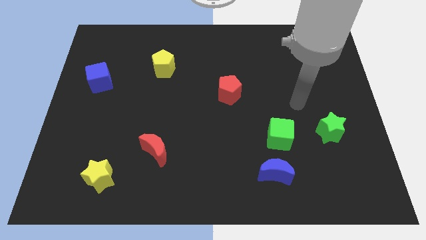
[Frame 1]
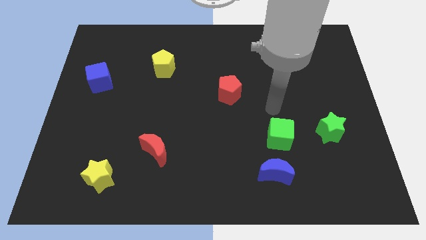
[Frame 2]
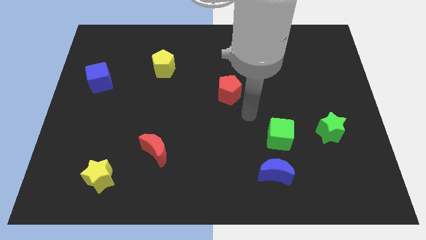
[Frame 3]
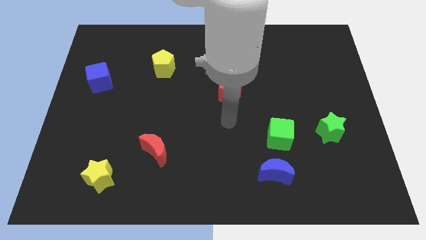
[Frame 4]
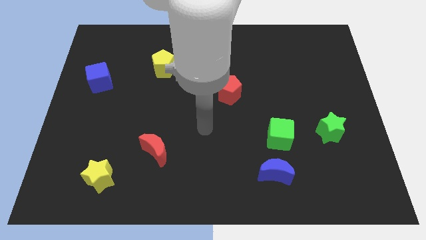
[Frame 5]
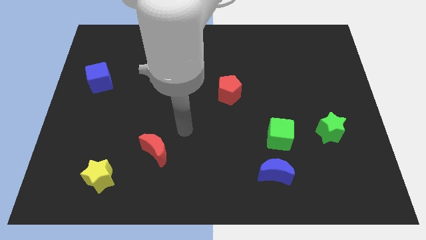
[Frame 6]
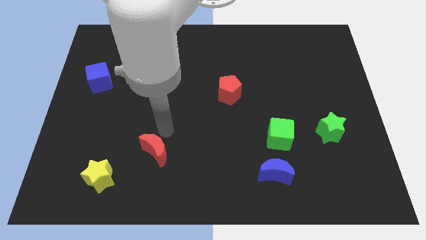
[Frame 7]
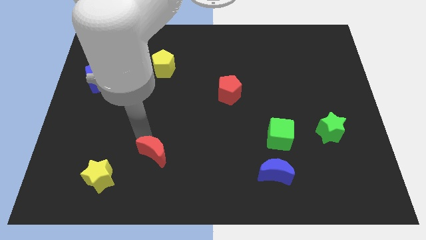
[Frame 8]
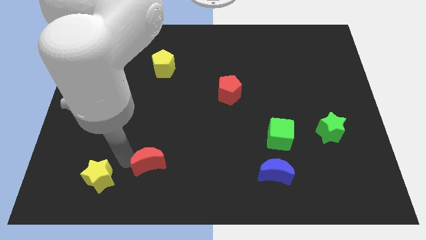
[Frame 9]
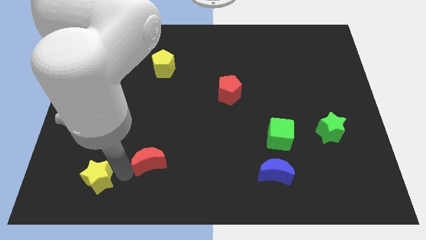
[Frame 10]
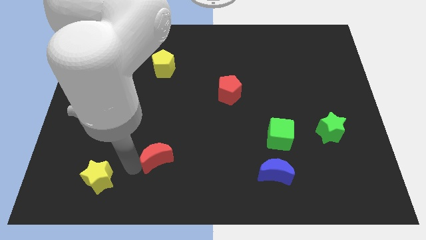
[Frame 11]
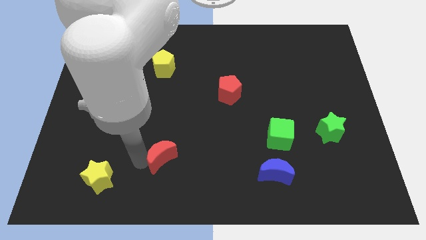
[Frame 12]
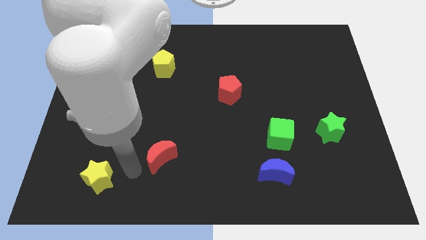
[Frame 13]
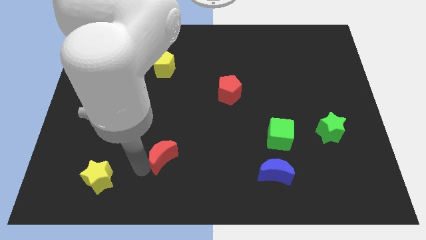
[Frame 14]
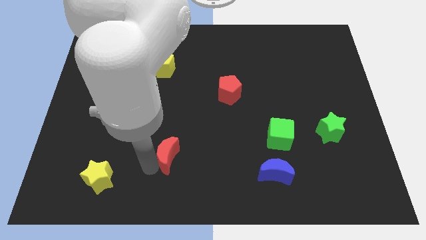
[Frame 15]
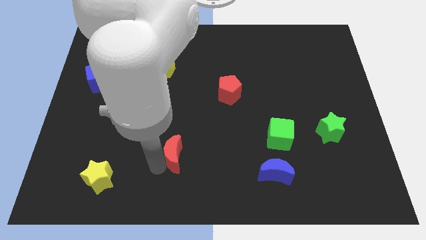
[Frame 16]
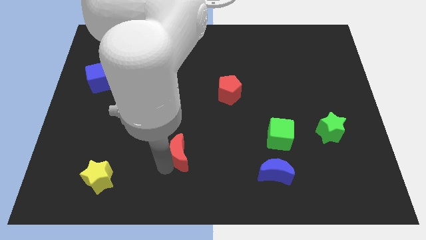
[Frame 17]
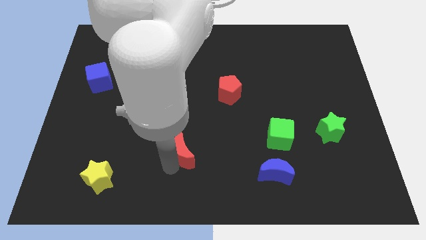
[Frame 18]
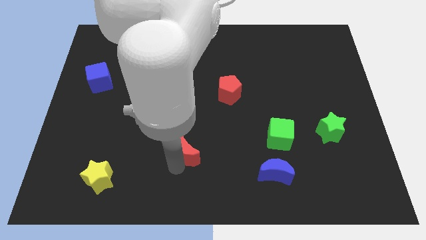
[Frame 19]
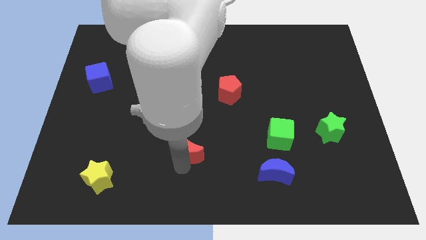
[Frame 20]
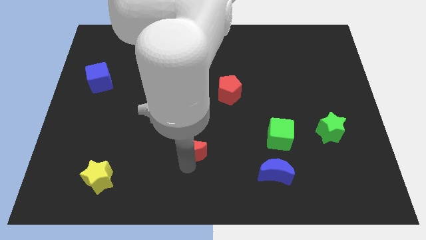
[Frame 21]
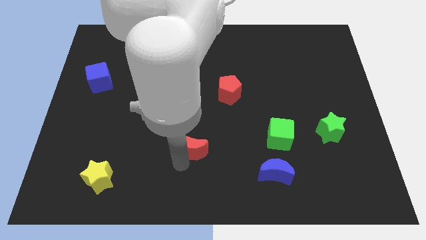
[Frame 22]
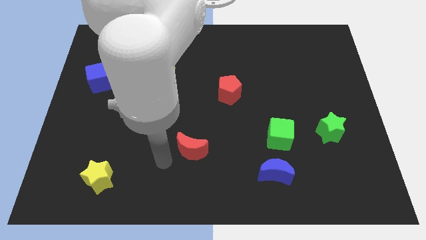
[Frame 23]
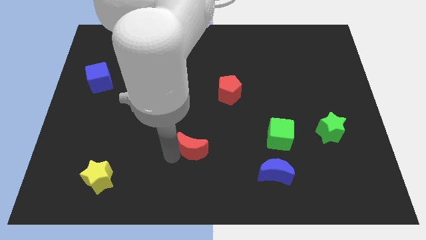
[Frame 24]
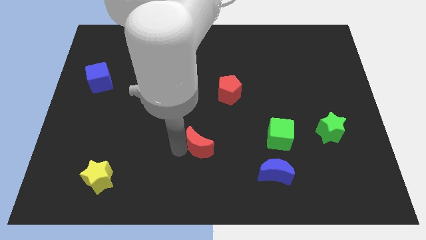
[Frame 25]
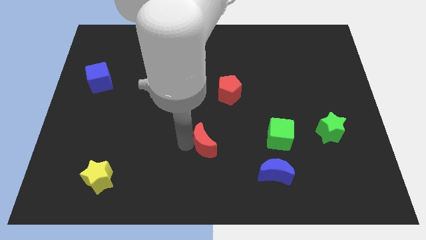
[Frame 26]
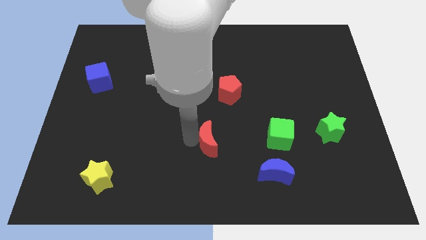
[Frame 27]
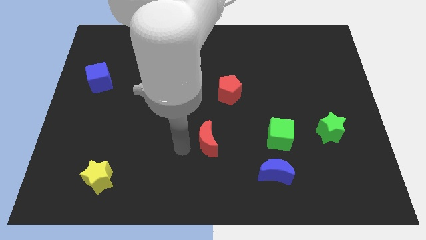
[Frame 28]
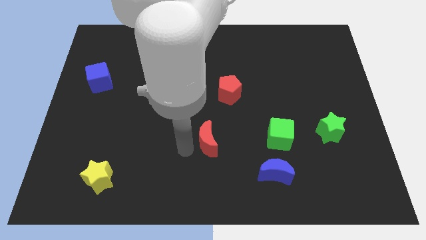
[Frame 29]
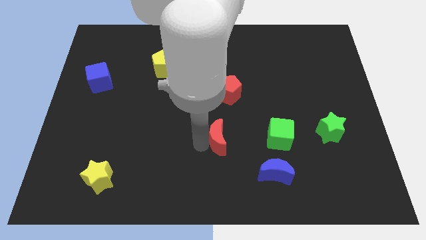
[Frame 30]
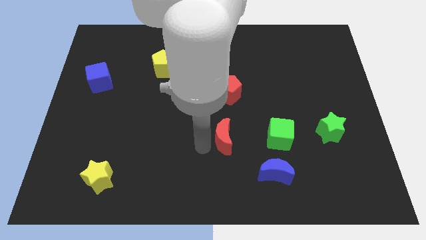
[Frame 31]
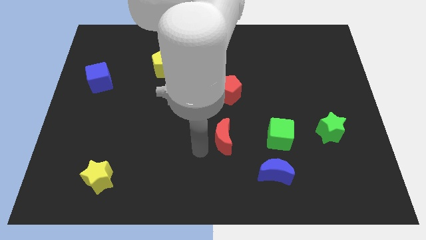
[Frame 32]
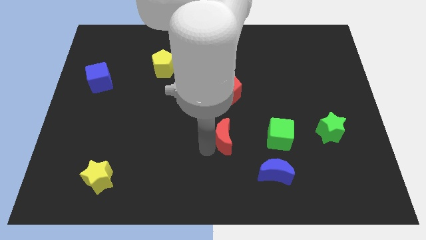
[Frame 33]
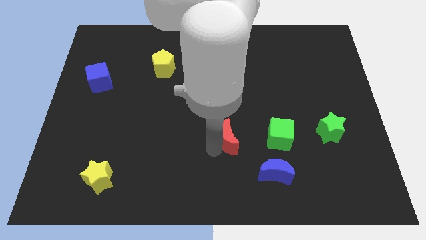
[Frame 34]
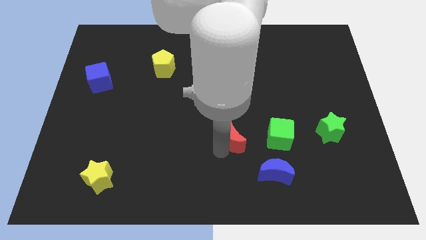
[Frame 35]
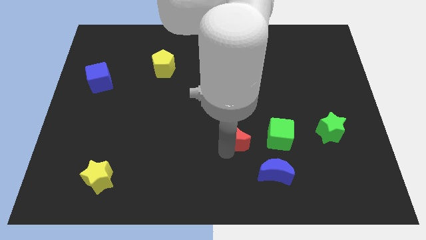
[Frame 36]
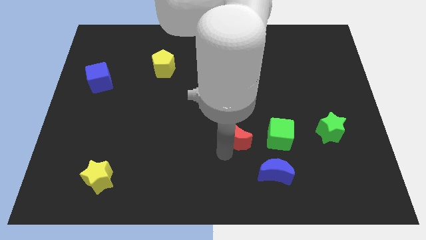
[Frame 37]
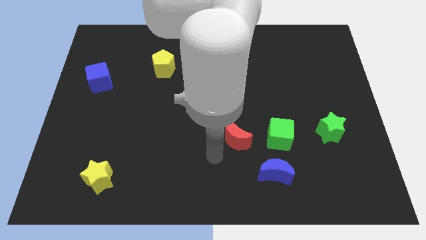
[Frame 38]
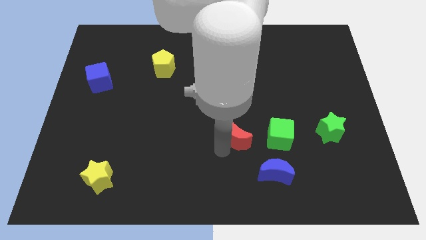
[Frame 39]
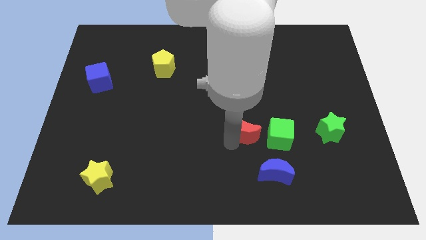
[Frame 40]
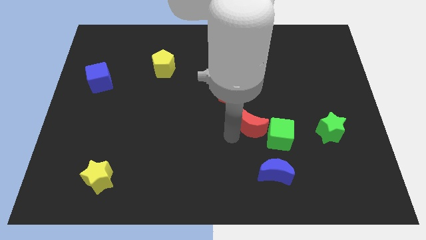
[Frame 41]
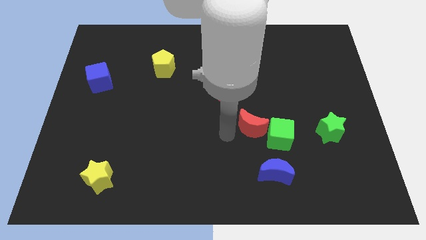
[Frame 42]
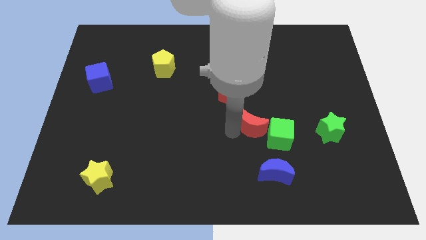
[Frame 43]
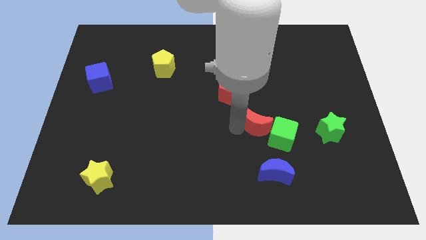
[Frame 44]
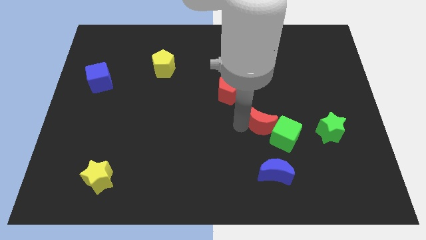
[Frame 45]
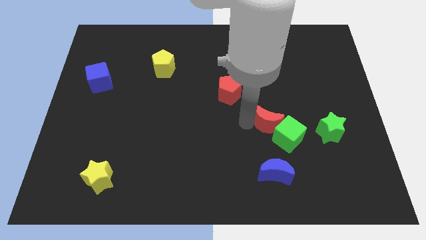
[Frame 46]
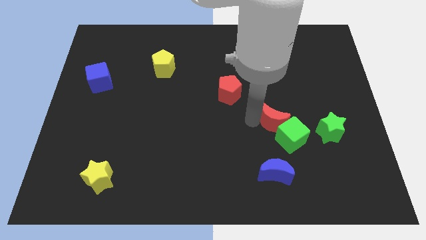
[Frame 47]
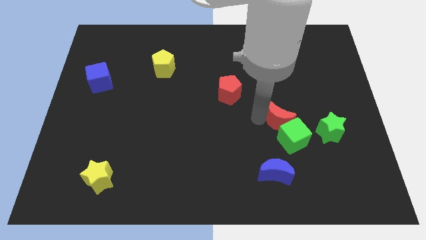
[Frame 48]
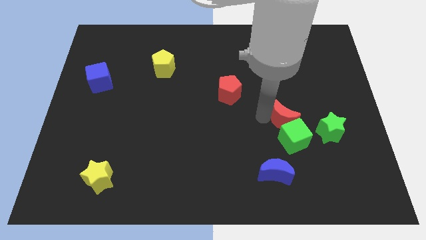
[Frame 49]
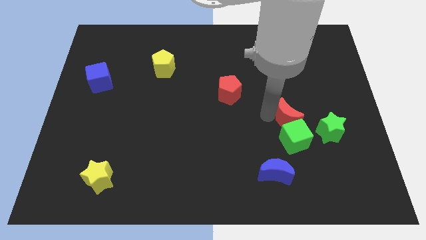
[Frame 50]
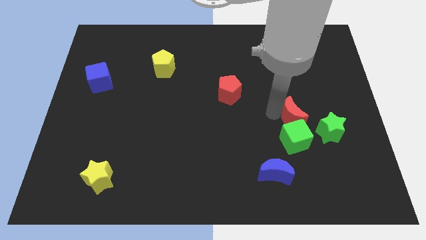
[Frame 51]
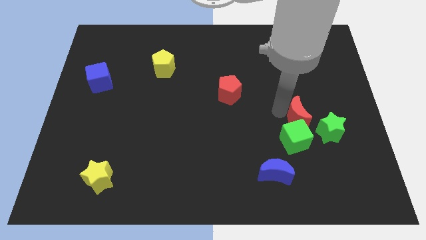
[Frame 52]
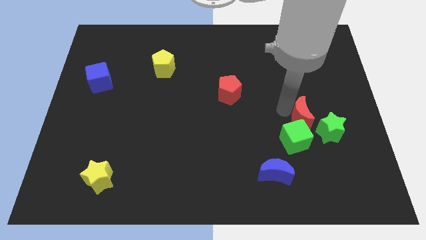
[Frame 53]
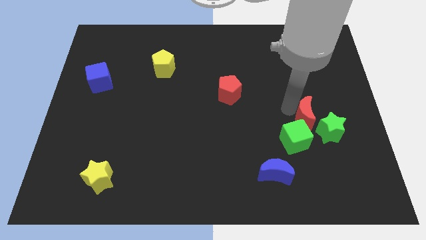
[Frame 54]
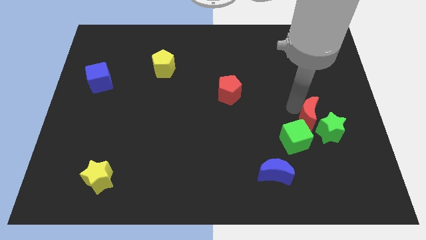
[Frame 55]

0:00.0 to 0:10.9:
slide the red moon close to the green star

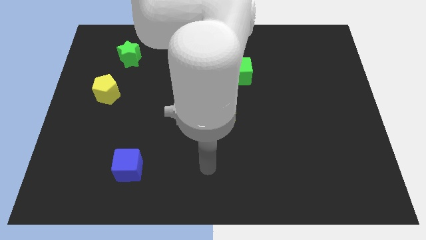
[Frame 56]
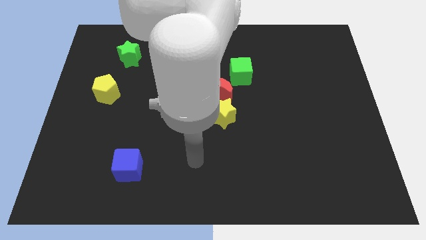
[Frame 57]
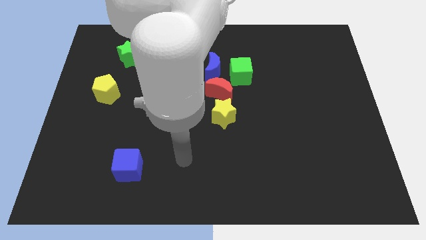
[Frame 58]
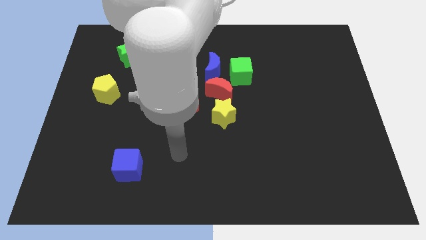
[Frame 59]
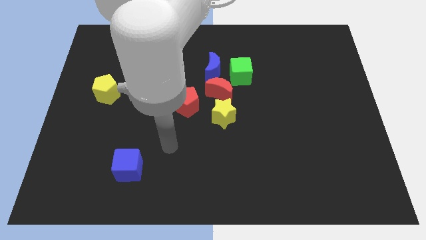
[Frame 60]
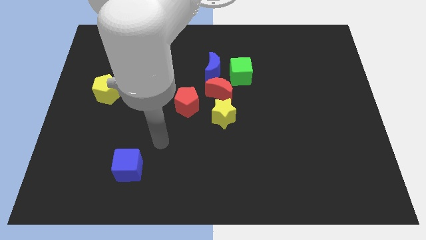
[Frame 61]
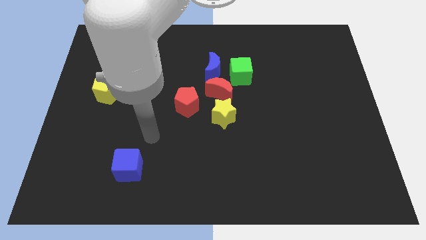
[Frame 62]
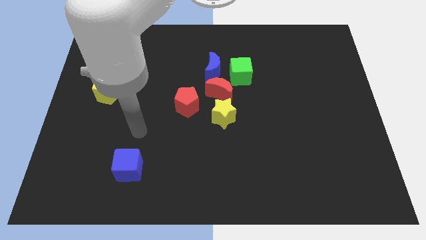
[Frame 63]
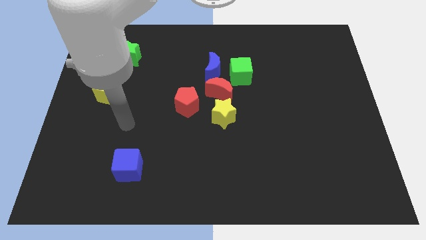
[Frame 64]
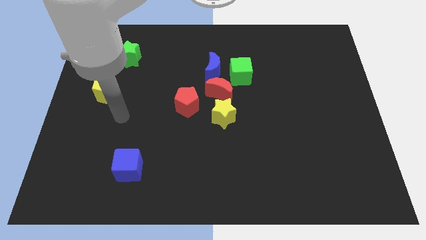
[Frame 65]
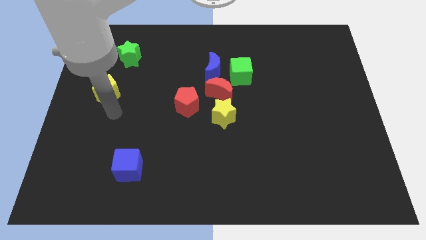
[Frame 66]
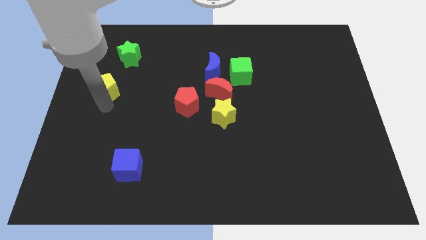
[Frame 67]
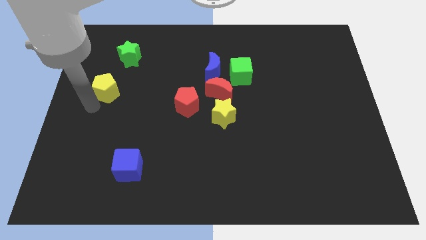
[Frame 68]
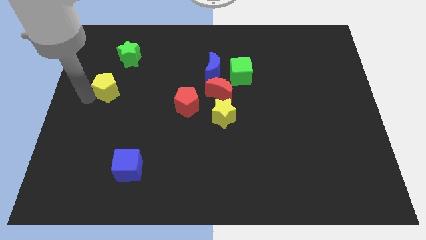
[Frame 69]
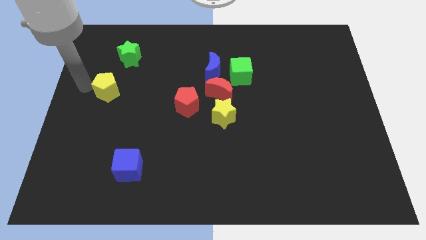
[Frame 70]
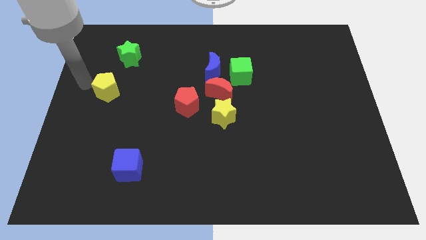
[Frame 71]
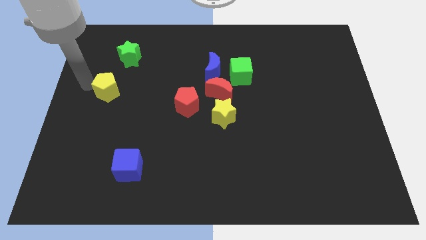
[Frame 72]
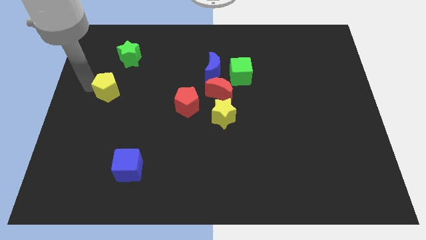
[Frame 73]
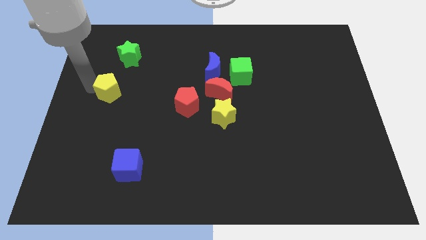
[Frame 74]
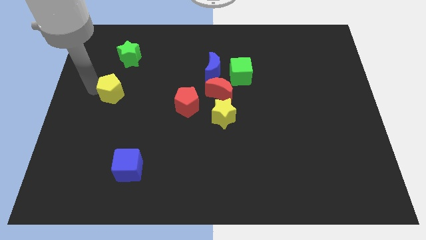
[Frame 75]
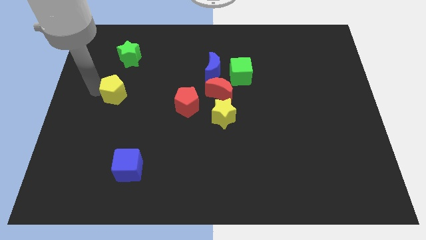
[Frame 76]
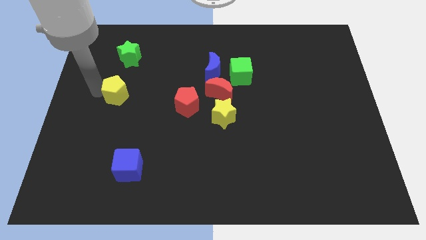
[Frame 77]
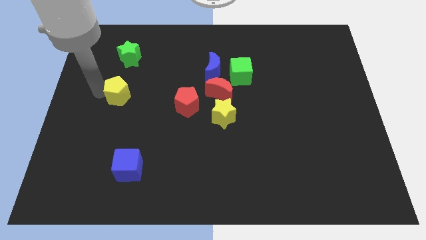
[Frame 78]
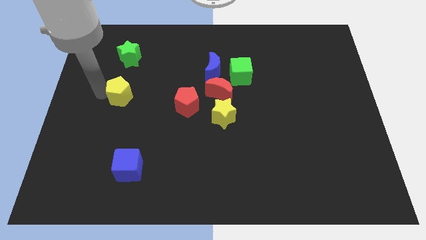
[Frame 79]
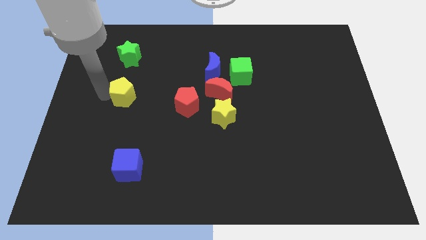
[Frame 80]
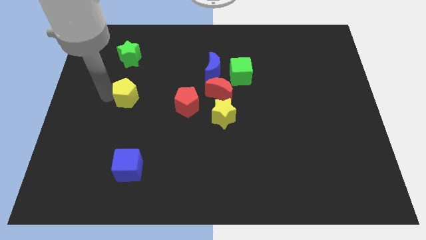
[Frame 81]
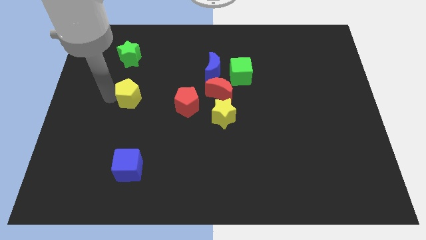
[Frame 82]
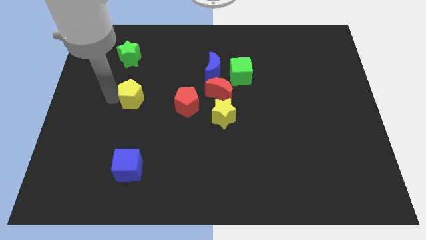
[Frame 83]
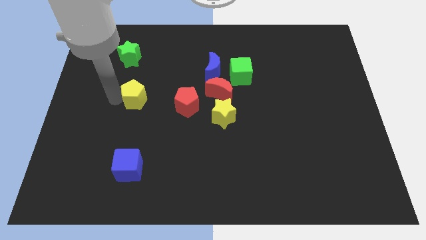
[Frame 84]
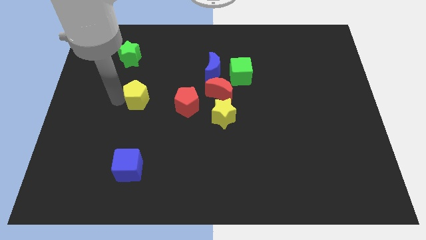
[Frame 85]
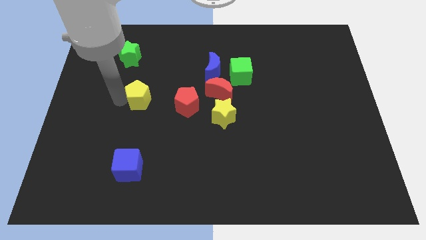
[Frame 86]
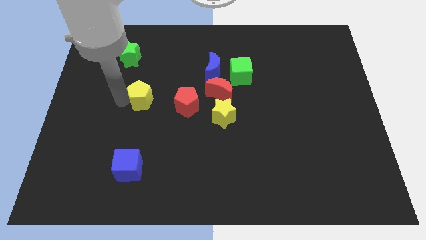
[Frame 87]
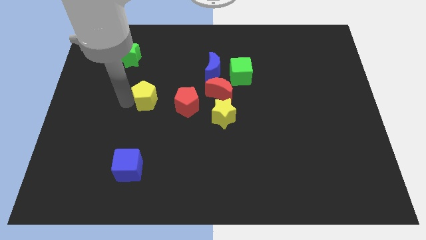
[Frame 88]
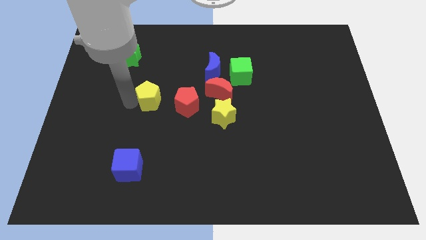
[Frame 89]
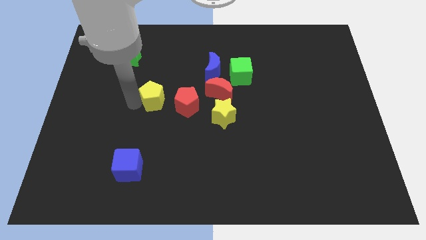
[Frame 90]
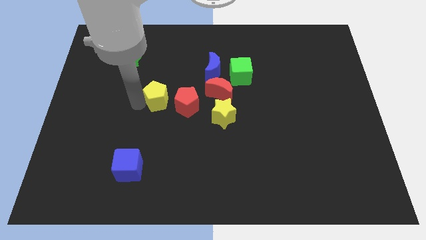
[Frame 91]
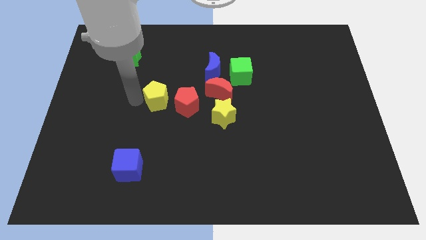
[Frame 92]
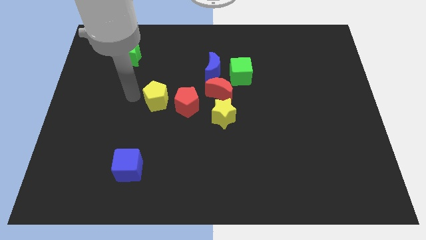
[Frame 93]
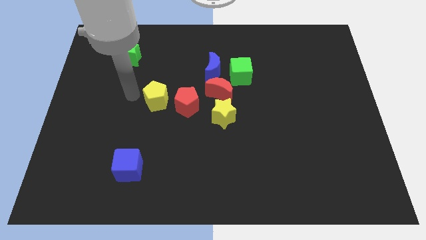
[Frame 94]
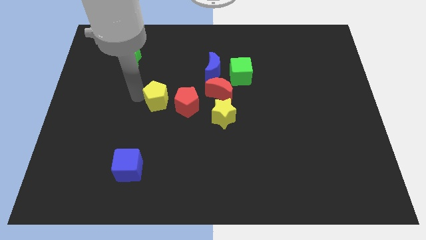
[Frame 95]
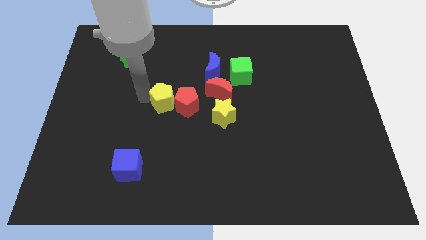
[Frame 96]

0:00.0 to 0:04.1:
put the yellow pentagon next to the red pentagon
